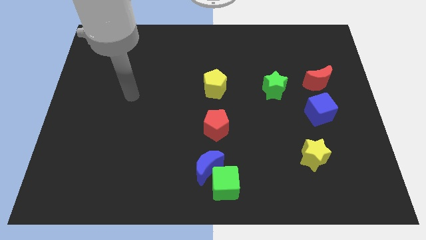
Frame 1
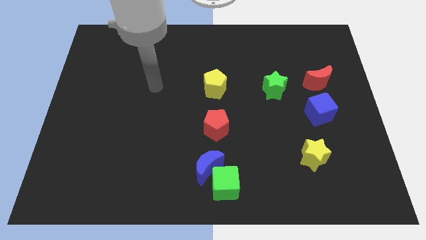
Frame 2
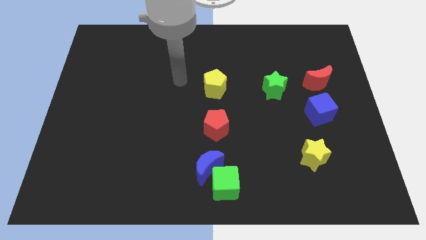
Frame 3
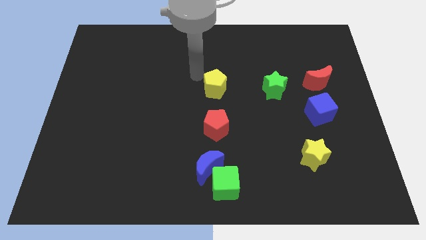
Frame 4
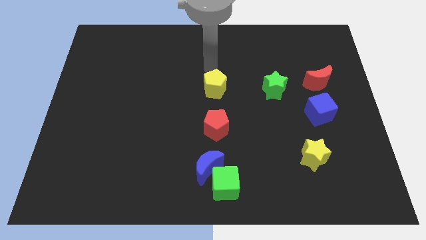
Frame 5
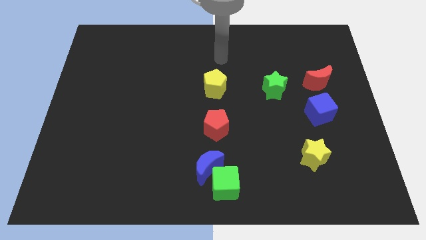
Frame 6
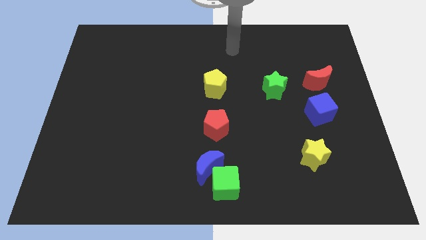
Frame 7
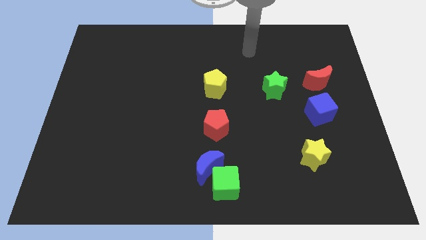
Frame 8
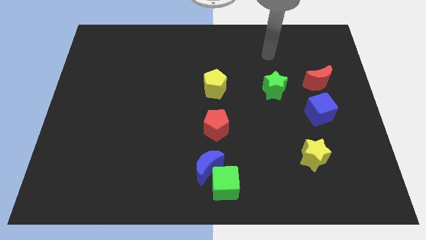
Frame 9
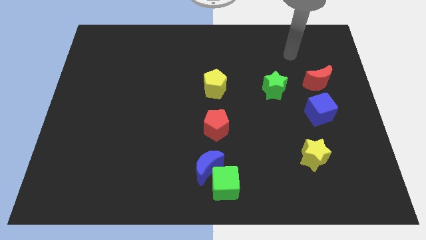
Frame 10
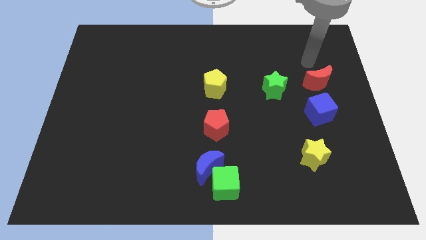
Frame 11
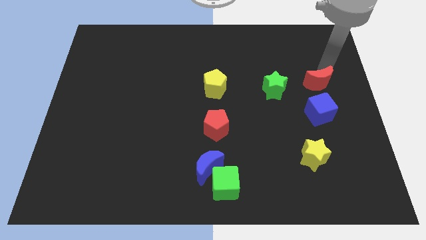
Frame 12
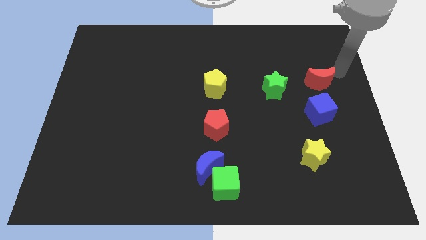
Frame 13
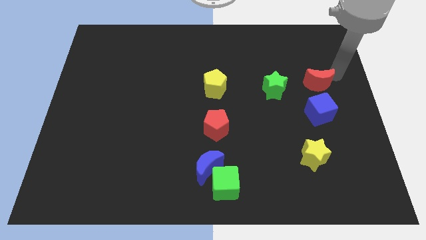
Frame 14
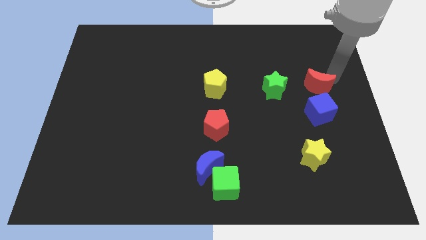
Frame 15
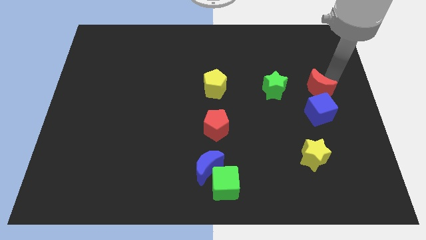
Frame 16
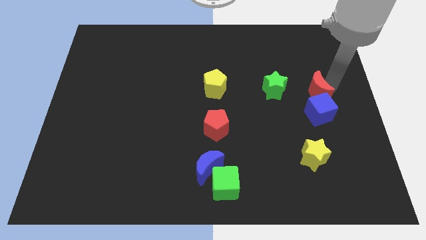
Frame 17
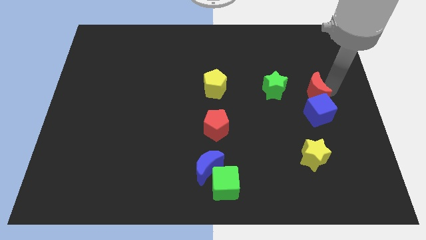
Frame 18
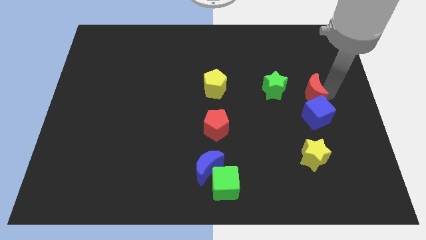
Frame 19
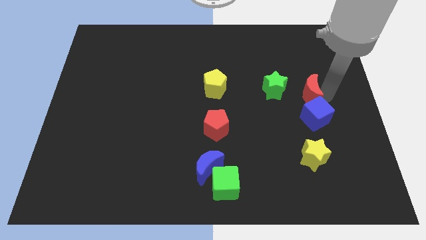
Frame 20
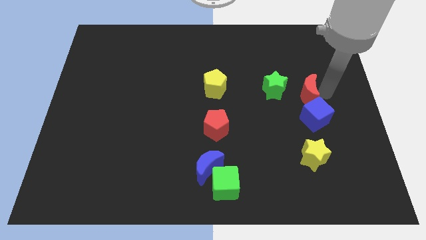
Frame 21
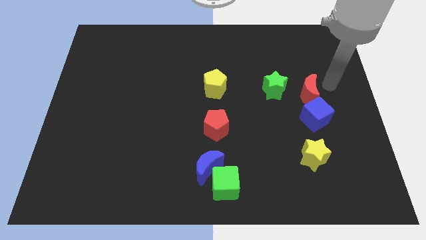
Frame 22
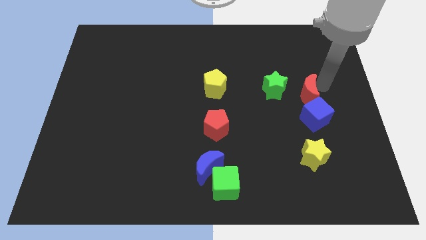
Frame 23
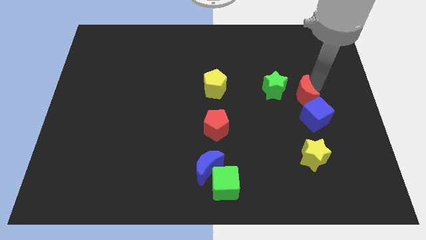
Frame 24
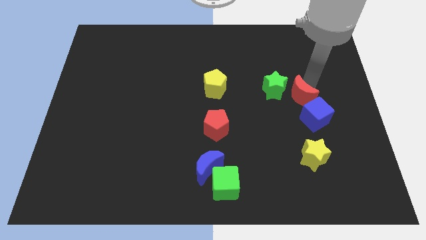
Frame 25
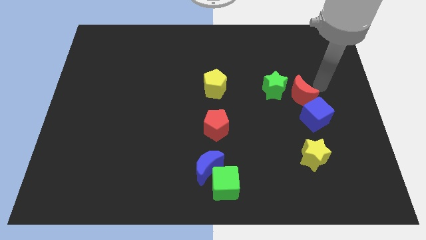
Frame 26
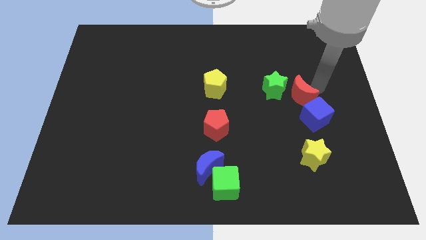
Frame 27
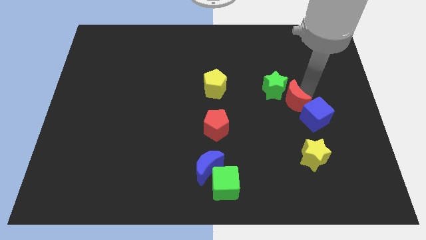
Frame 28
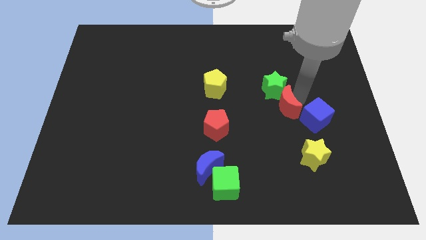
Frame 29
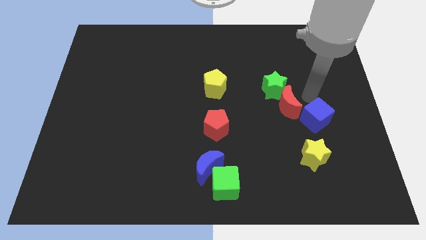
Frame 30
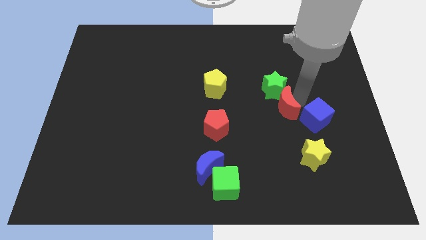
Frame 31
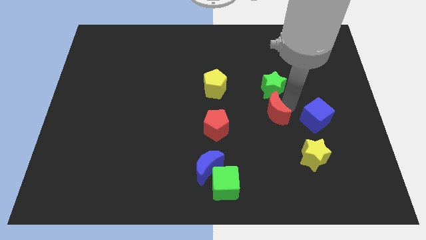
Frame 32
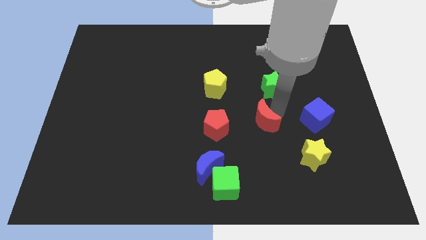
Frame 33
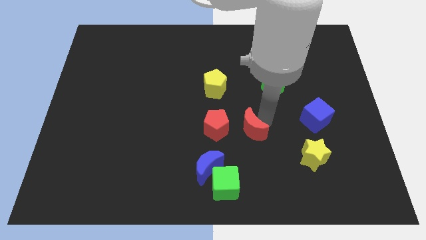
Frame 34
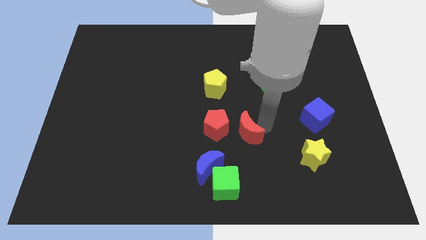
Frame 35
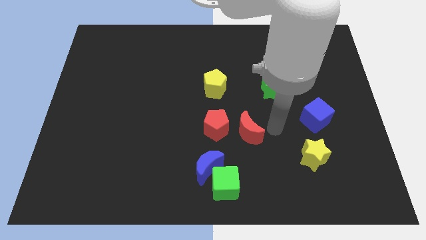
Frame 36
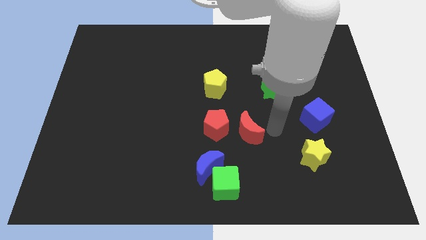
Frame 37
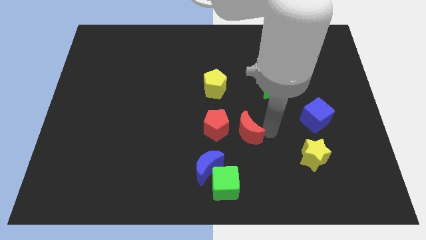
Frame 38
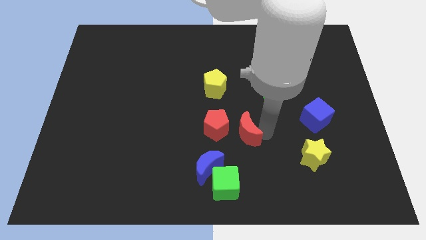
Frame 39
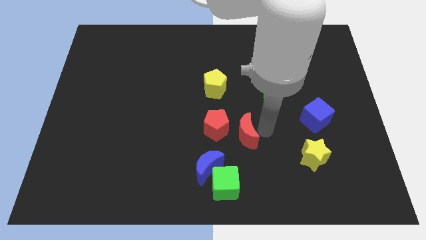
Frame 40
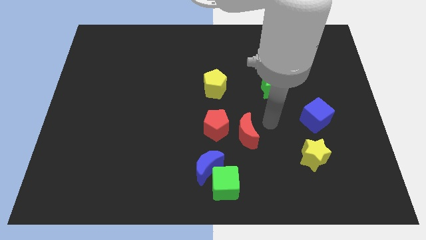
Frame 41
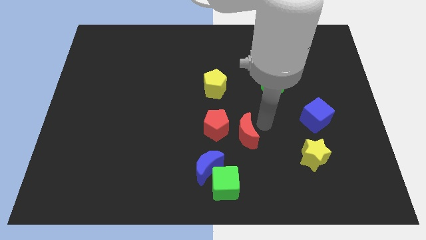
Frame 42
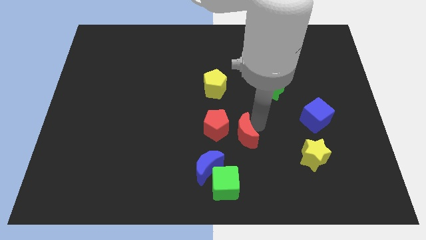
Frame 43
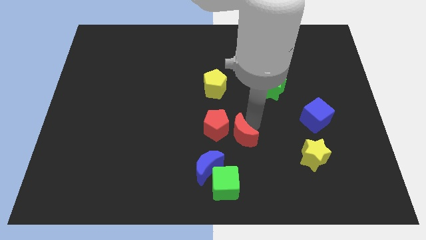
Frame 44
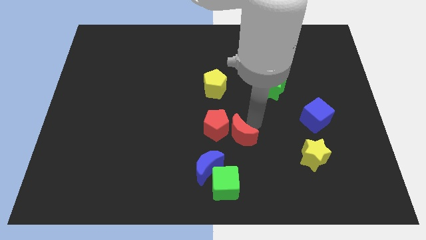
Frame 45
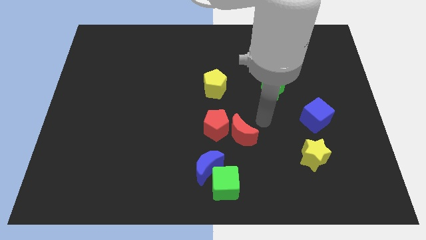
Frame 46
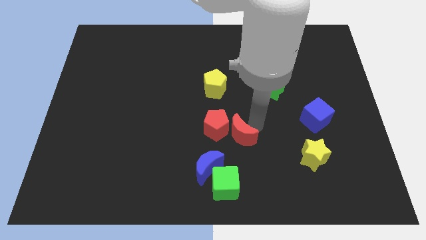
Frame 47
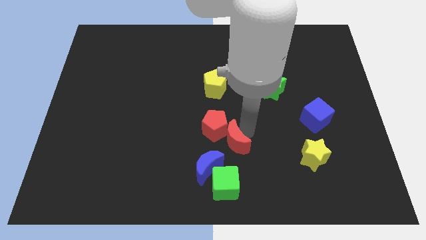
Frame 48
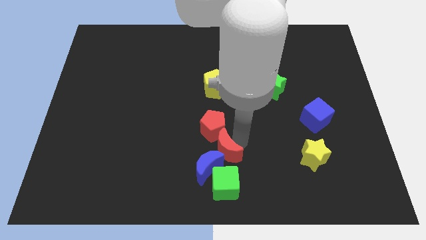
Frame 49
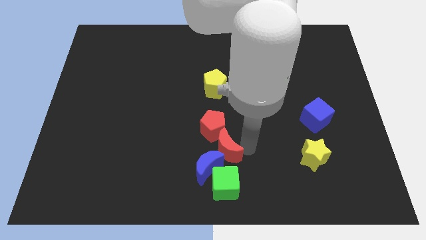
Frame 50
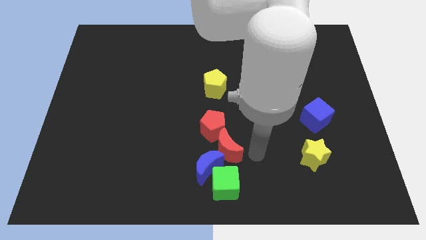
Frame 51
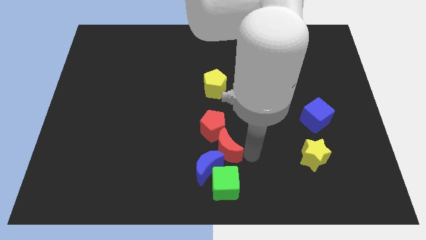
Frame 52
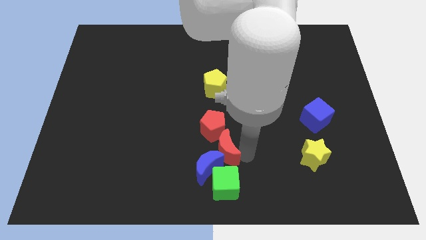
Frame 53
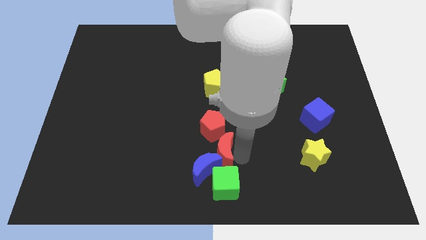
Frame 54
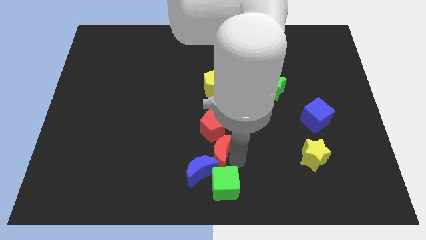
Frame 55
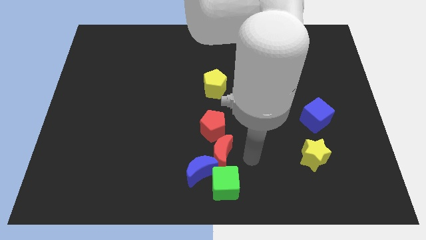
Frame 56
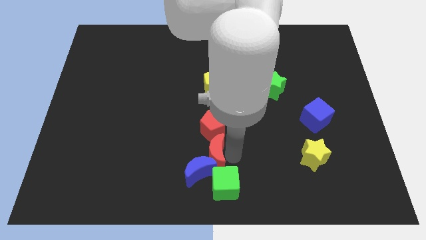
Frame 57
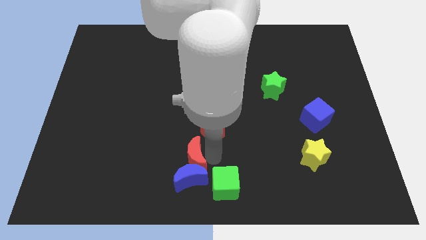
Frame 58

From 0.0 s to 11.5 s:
push the red moon diagonally up and to the left of the blue moon

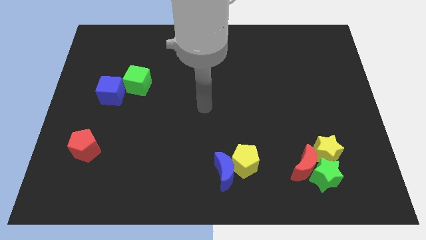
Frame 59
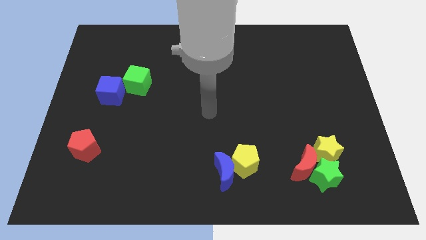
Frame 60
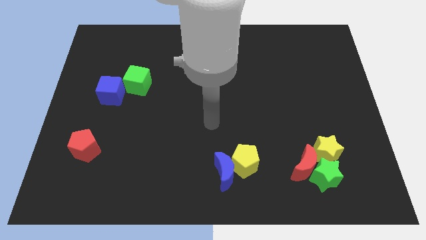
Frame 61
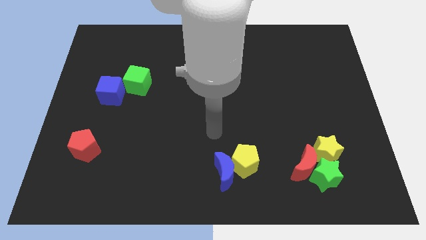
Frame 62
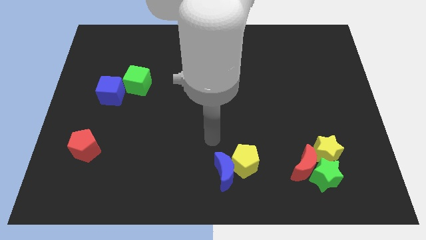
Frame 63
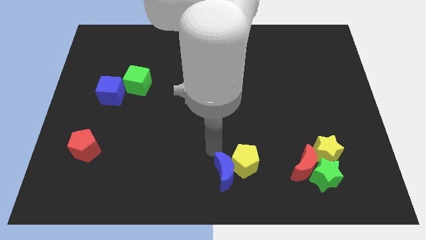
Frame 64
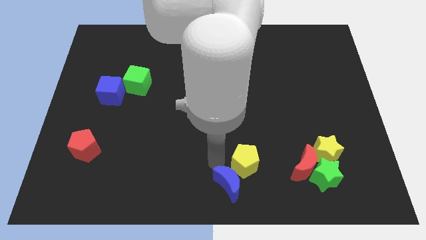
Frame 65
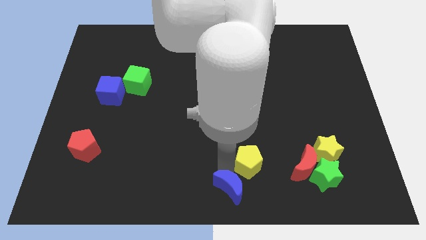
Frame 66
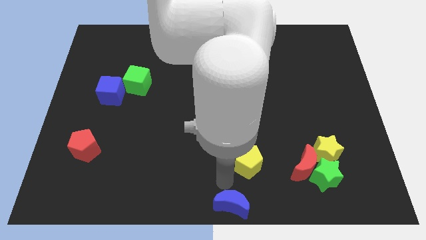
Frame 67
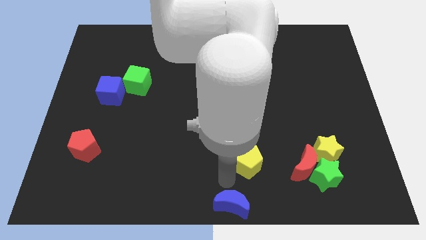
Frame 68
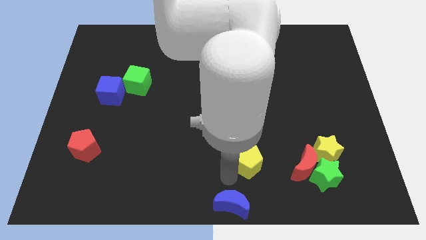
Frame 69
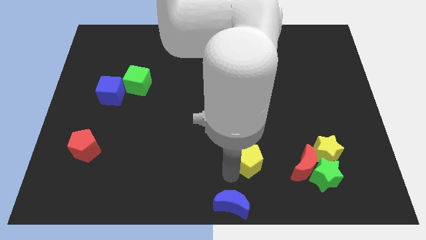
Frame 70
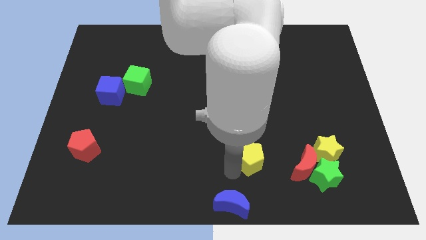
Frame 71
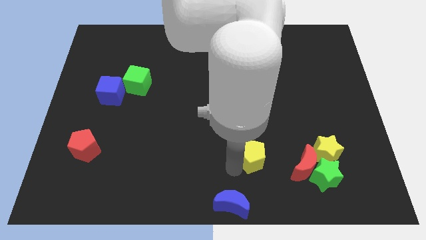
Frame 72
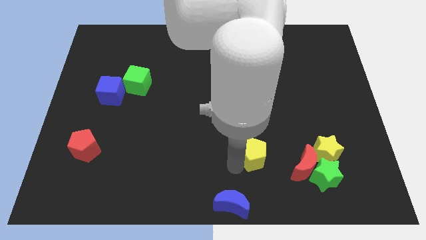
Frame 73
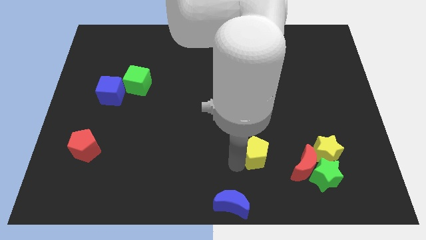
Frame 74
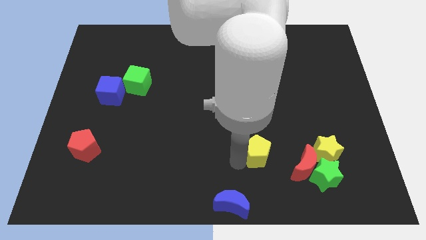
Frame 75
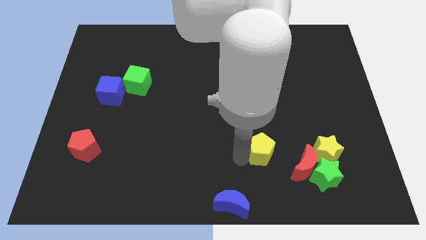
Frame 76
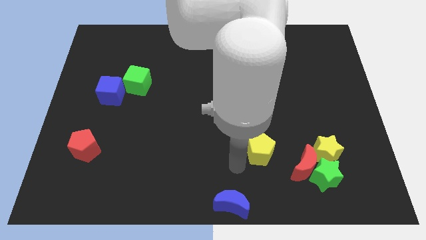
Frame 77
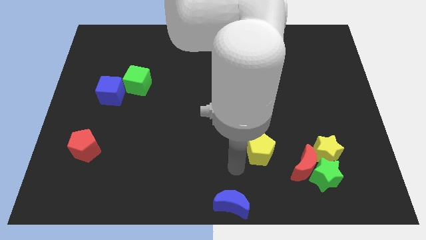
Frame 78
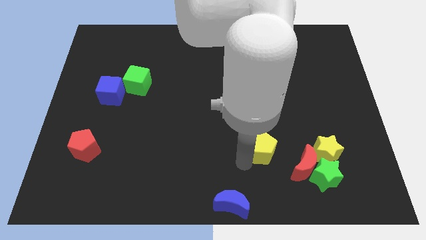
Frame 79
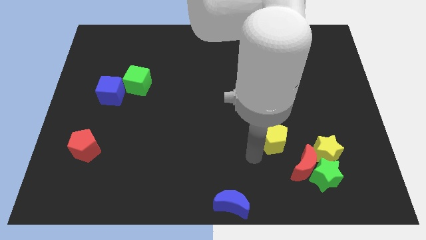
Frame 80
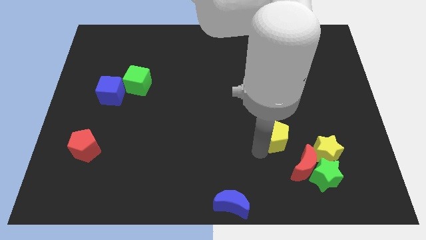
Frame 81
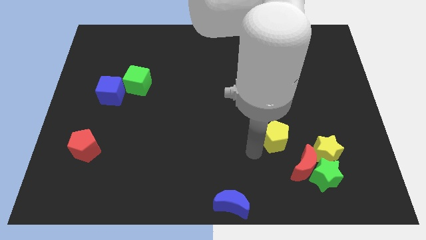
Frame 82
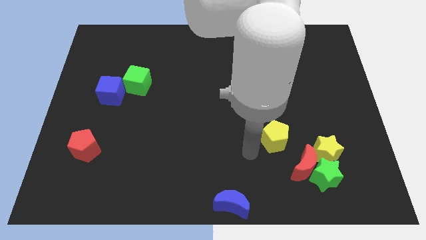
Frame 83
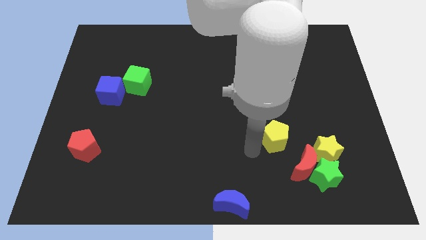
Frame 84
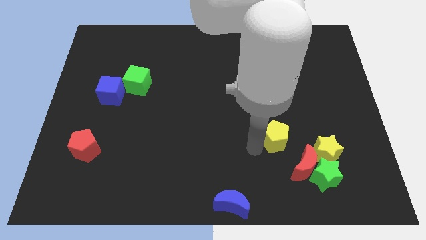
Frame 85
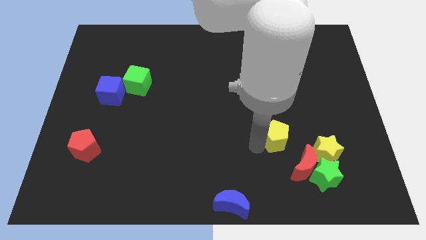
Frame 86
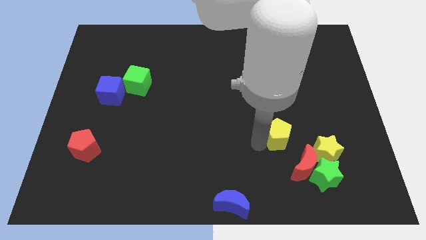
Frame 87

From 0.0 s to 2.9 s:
slide the yellow pentagon to the top of the red moon
